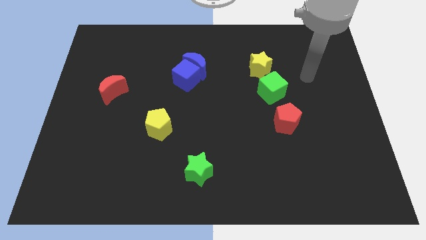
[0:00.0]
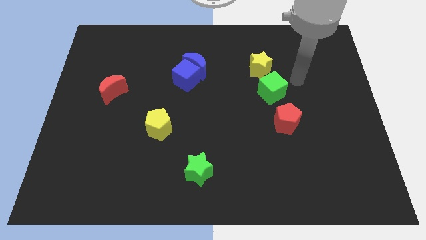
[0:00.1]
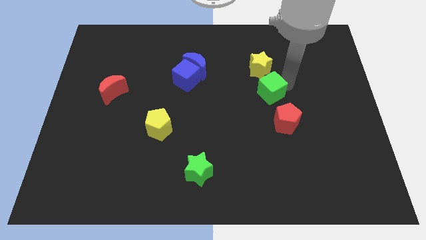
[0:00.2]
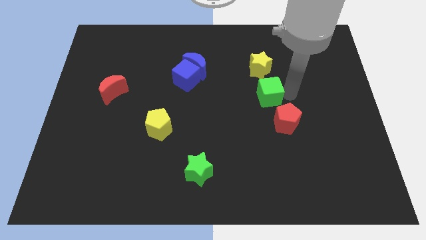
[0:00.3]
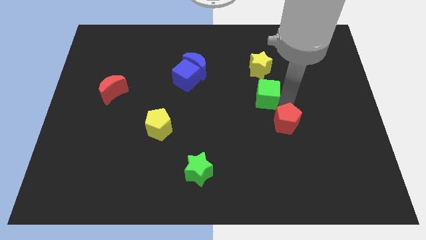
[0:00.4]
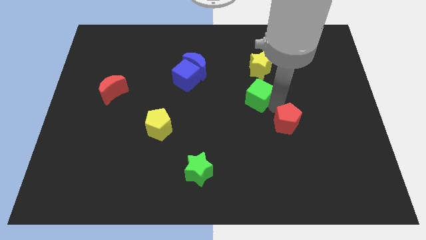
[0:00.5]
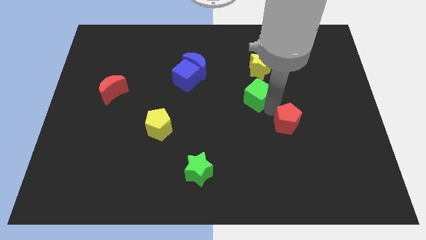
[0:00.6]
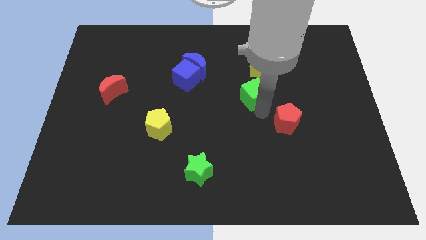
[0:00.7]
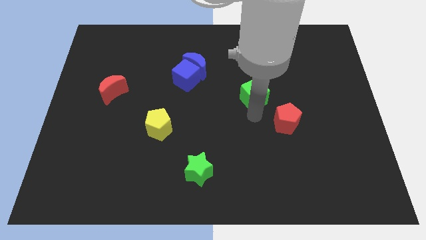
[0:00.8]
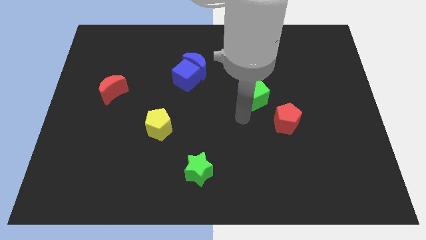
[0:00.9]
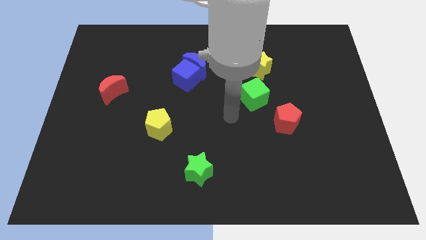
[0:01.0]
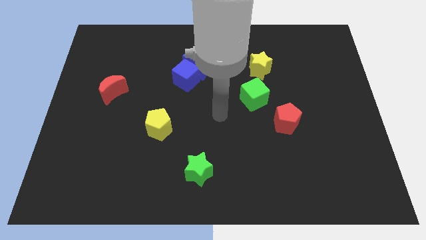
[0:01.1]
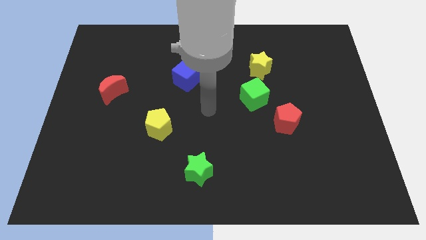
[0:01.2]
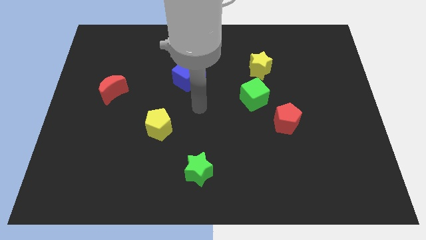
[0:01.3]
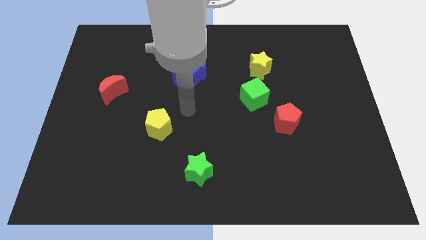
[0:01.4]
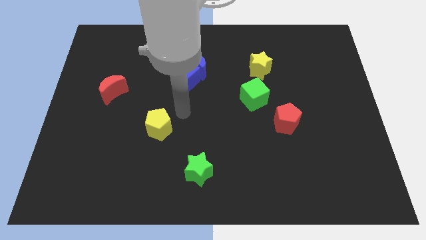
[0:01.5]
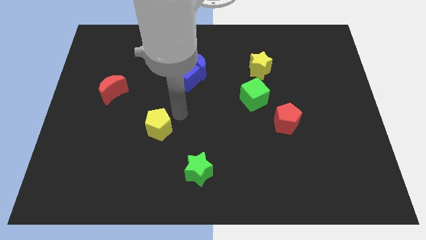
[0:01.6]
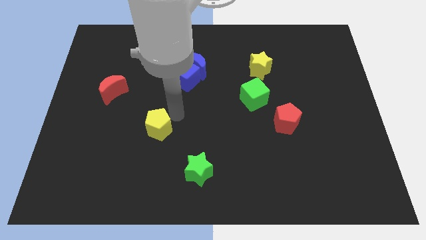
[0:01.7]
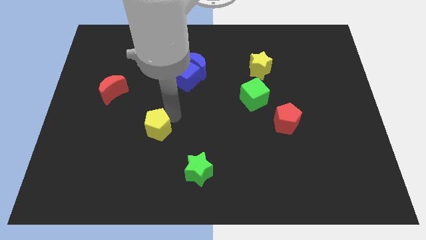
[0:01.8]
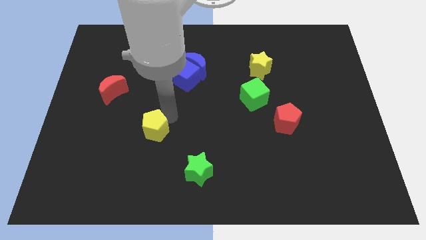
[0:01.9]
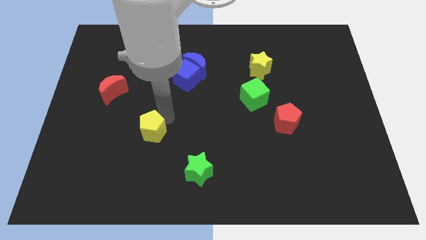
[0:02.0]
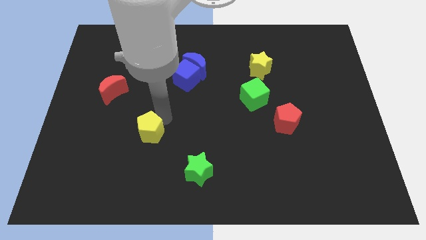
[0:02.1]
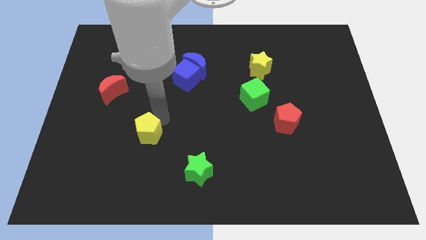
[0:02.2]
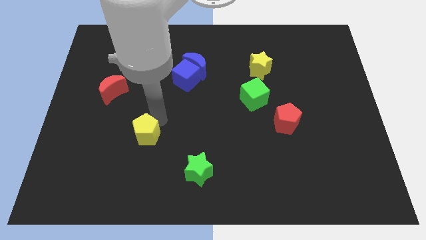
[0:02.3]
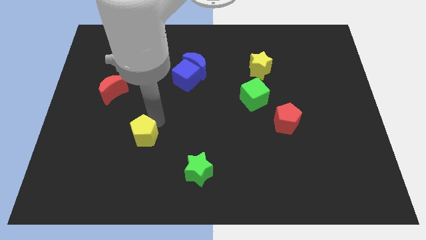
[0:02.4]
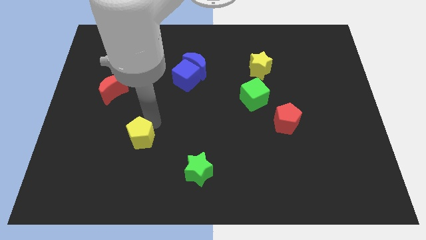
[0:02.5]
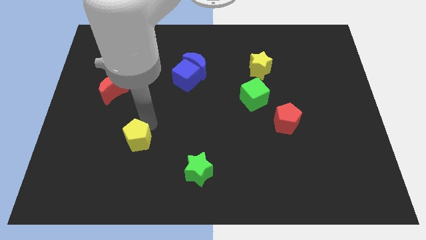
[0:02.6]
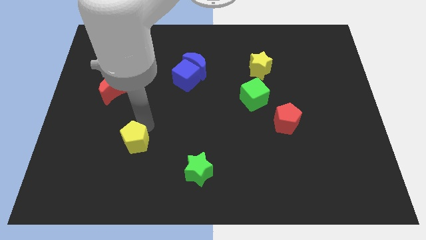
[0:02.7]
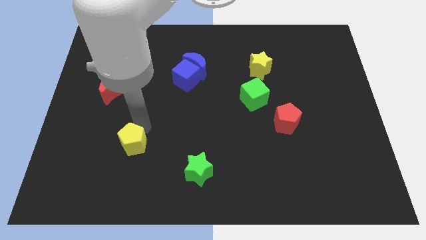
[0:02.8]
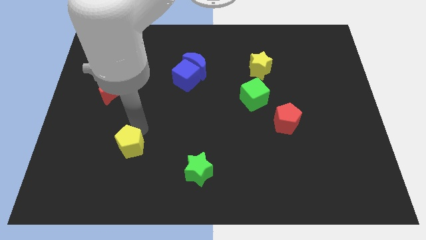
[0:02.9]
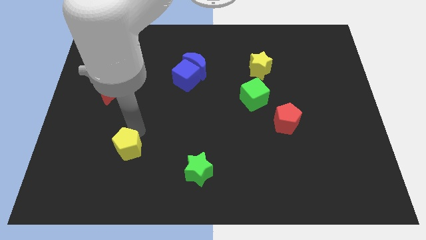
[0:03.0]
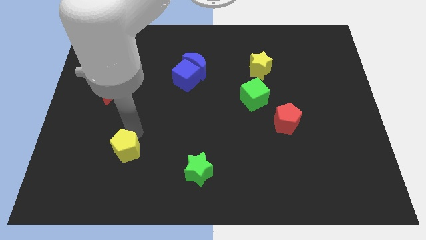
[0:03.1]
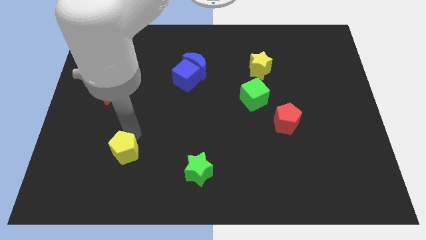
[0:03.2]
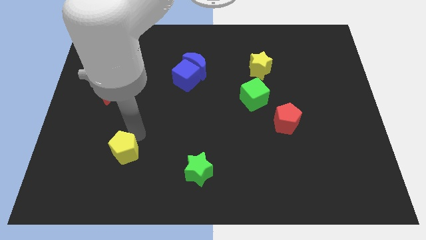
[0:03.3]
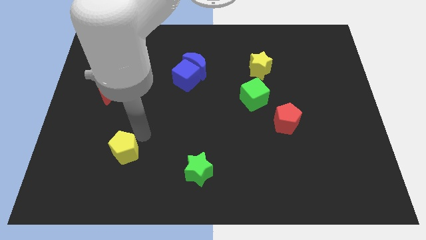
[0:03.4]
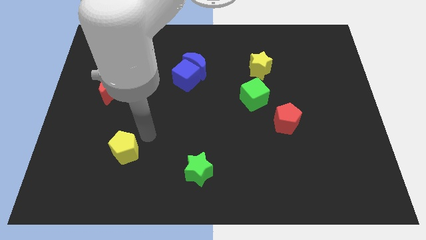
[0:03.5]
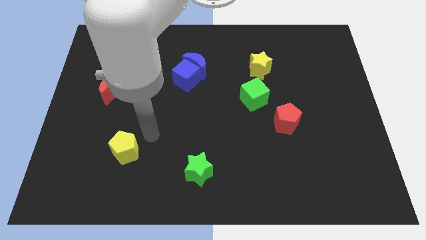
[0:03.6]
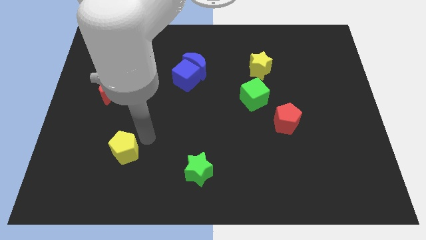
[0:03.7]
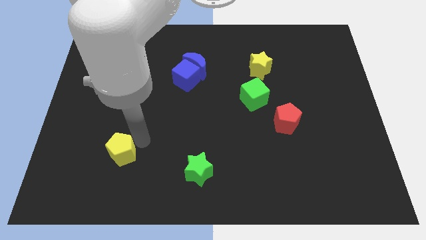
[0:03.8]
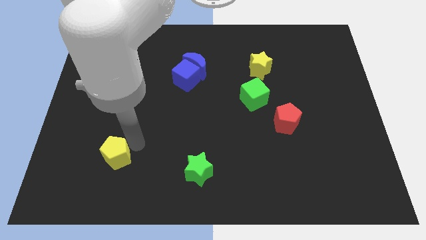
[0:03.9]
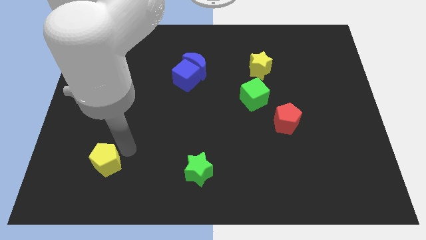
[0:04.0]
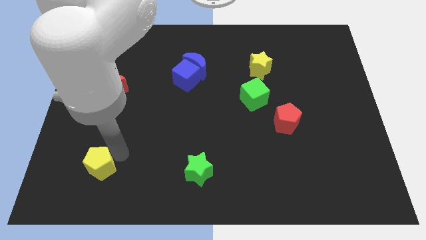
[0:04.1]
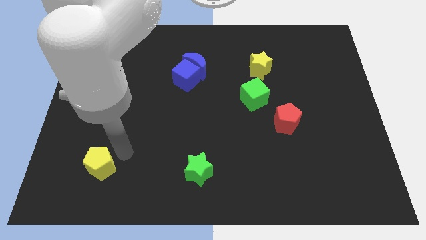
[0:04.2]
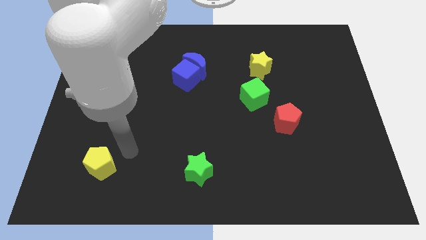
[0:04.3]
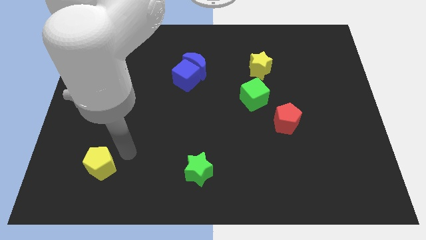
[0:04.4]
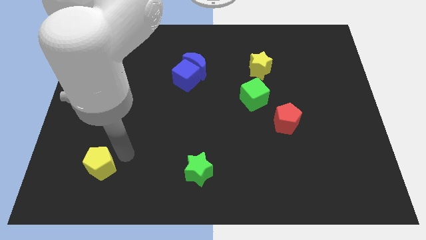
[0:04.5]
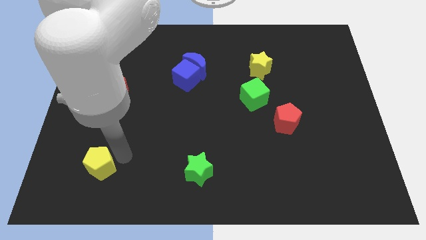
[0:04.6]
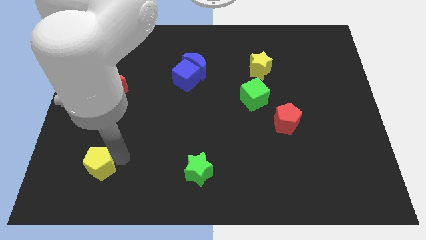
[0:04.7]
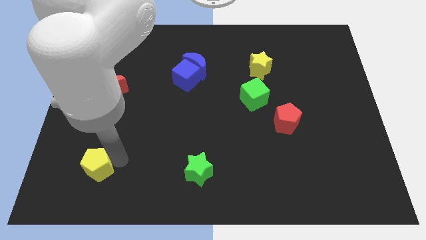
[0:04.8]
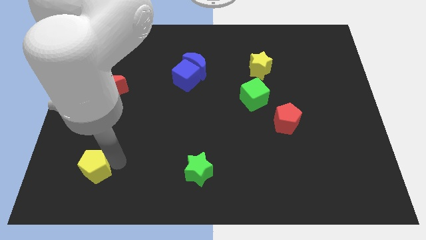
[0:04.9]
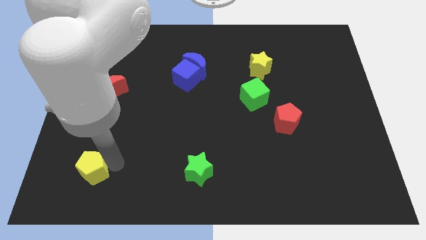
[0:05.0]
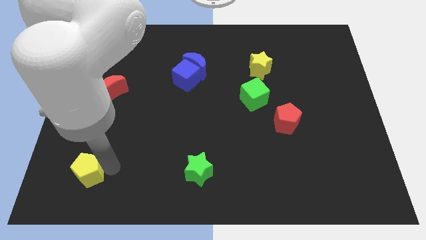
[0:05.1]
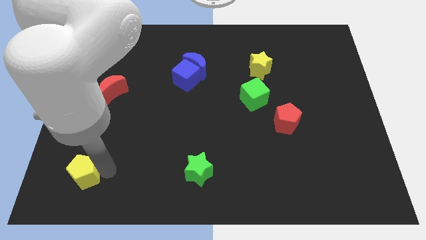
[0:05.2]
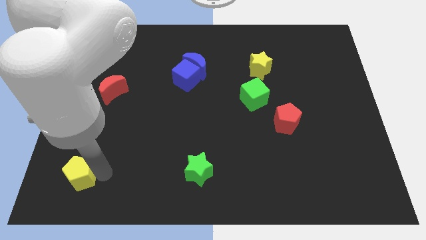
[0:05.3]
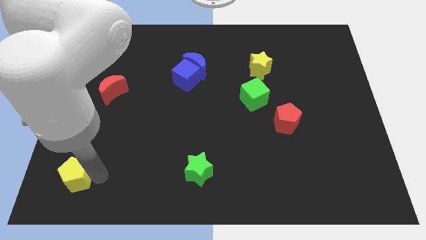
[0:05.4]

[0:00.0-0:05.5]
push the yellow pentagon to the lower left corner
